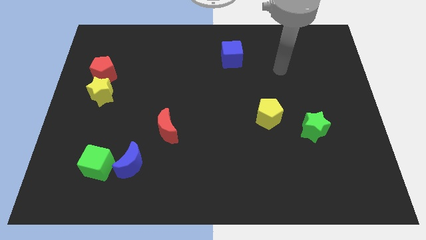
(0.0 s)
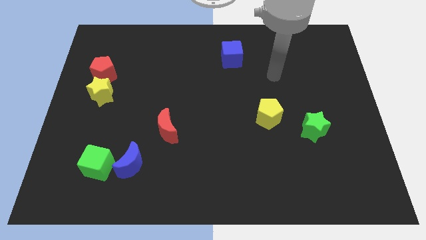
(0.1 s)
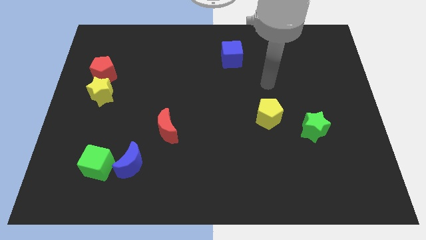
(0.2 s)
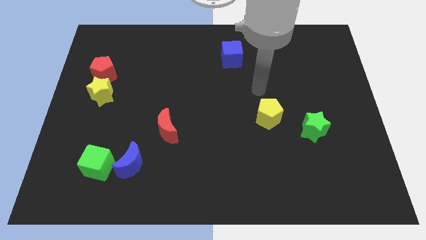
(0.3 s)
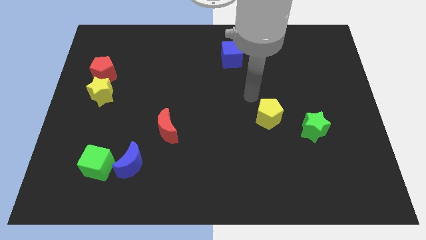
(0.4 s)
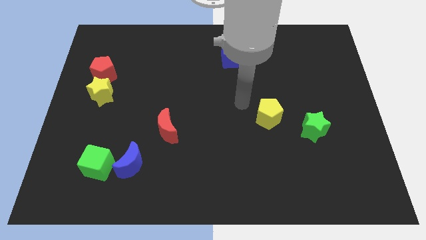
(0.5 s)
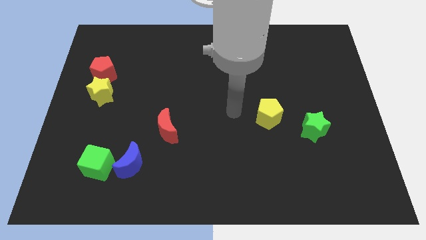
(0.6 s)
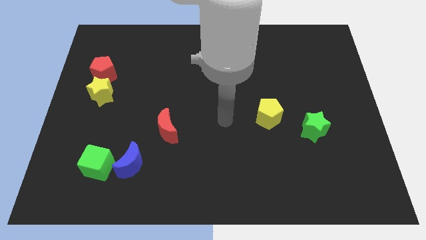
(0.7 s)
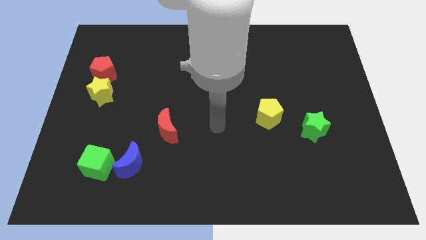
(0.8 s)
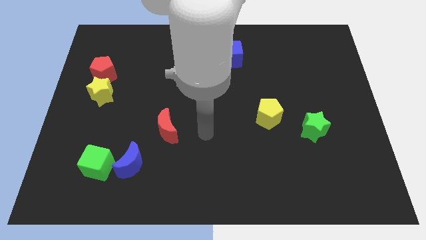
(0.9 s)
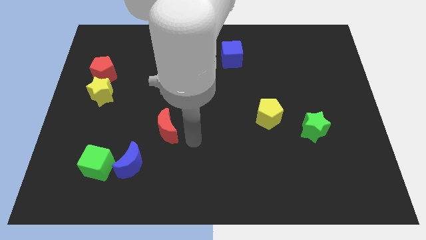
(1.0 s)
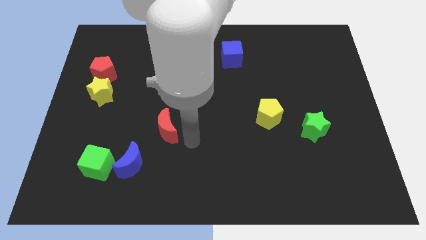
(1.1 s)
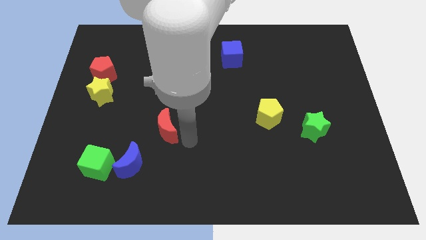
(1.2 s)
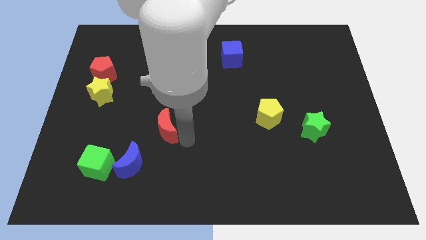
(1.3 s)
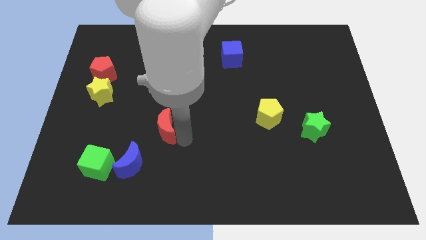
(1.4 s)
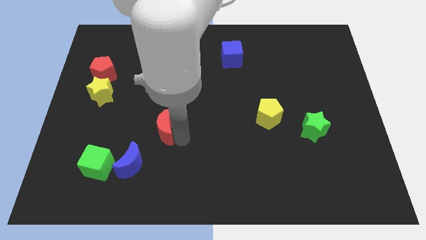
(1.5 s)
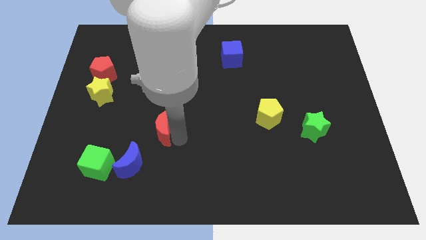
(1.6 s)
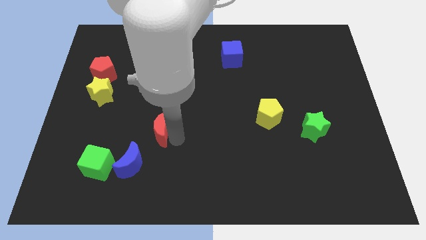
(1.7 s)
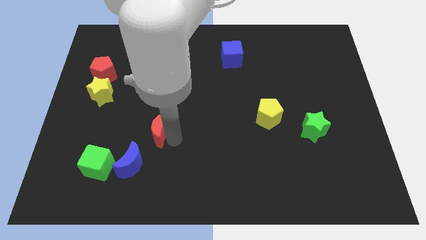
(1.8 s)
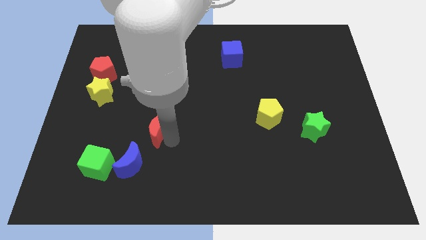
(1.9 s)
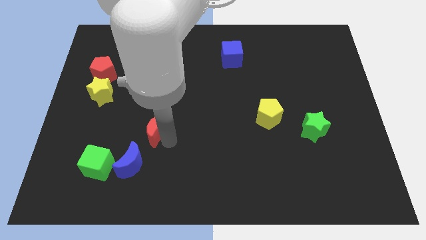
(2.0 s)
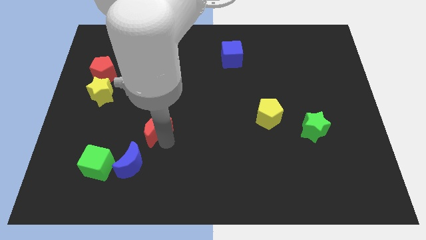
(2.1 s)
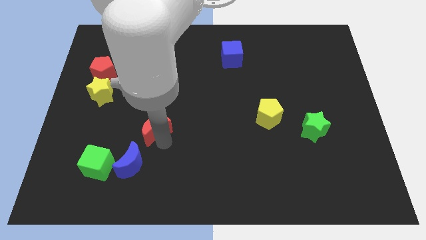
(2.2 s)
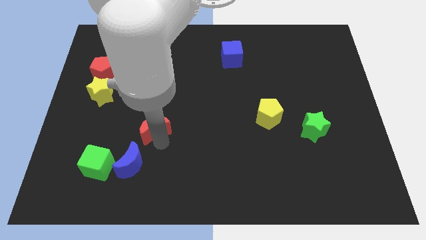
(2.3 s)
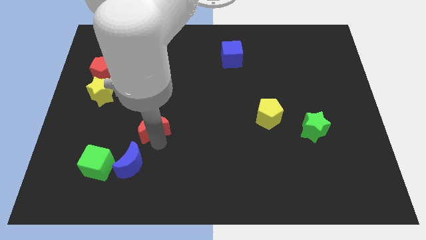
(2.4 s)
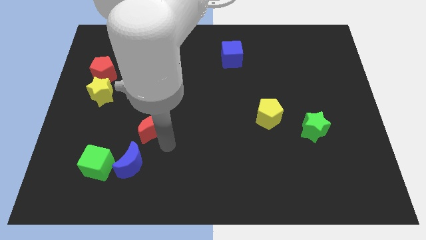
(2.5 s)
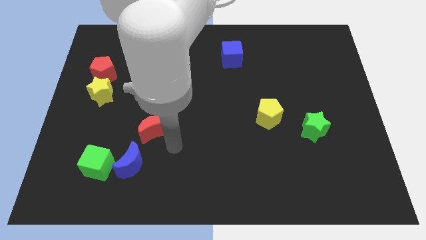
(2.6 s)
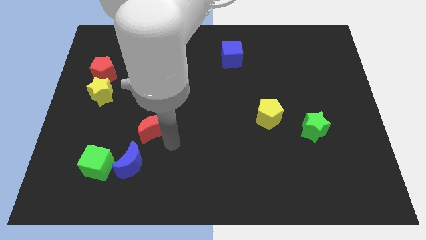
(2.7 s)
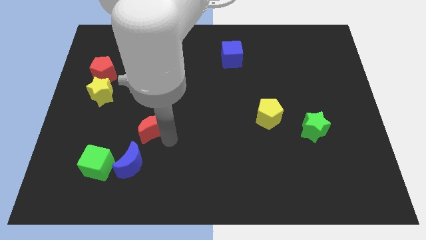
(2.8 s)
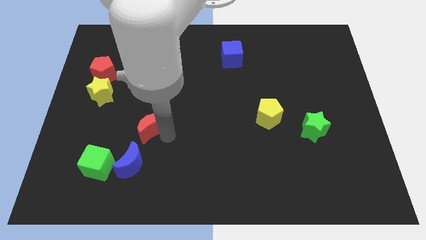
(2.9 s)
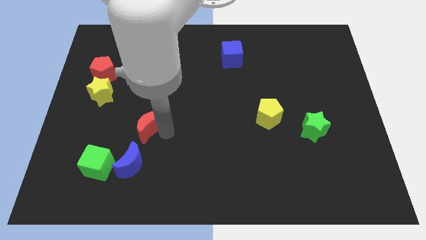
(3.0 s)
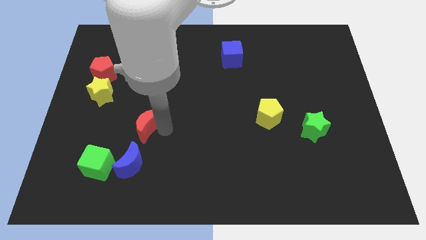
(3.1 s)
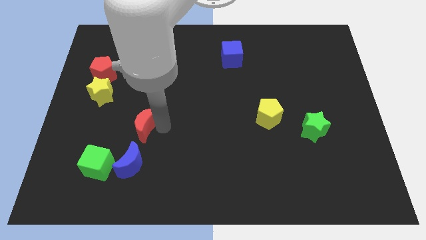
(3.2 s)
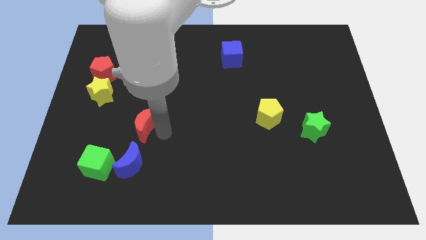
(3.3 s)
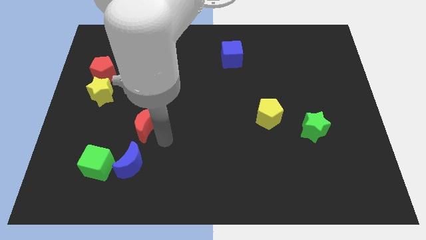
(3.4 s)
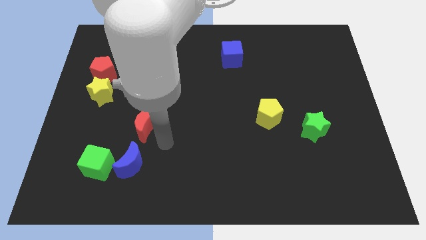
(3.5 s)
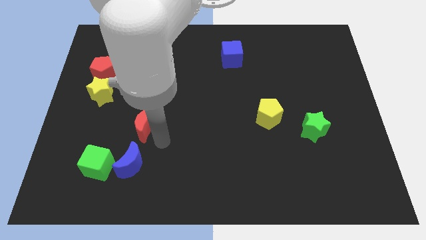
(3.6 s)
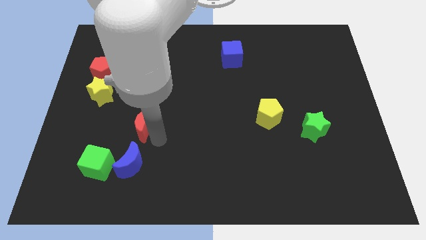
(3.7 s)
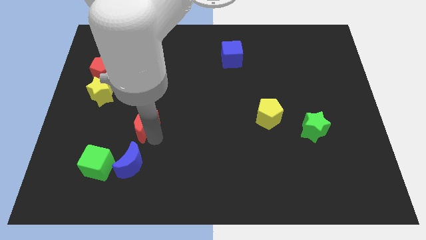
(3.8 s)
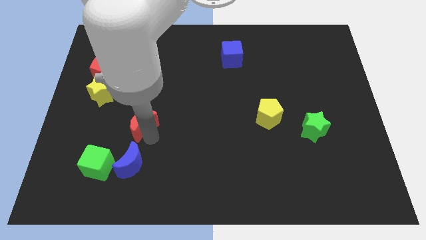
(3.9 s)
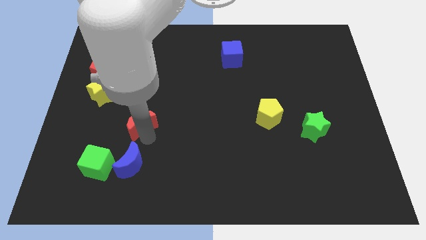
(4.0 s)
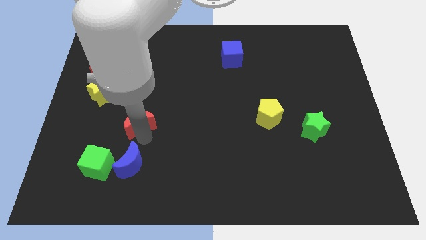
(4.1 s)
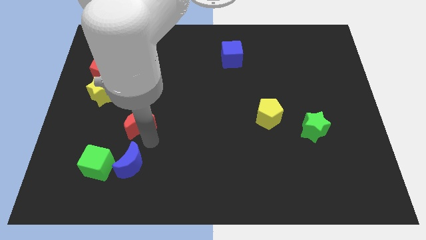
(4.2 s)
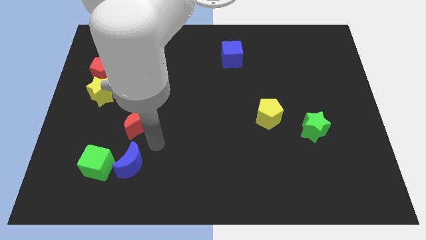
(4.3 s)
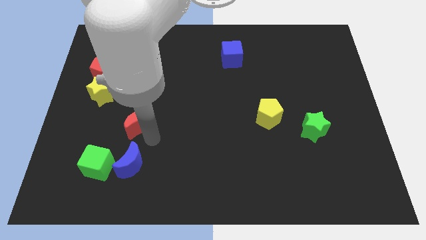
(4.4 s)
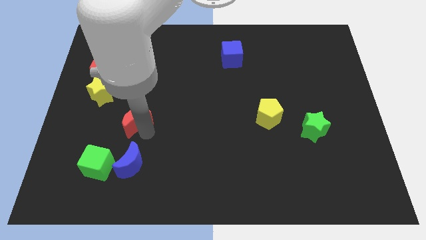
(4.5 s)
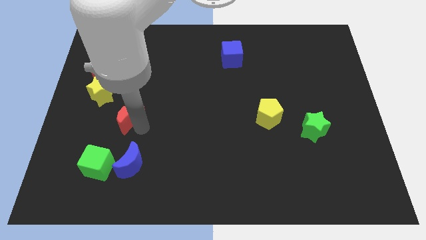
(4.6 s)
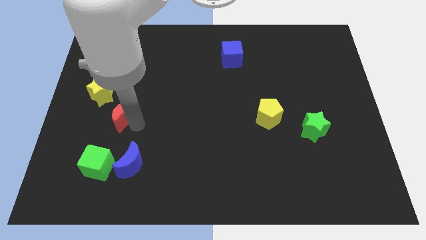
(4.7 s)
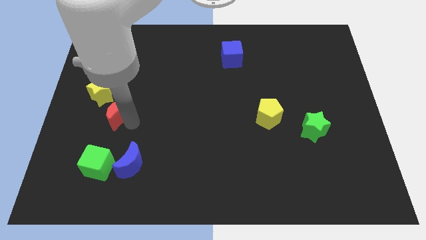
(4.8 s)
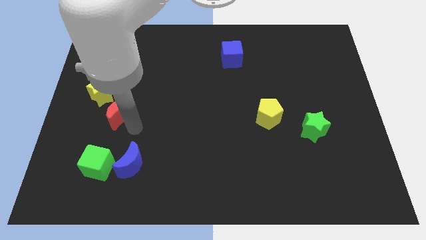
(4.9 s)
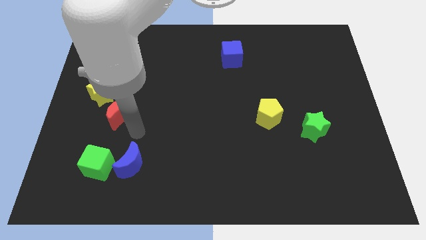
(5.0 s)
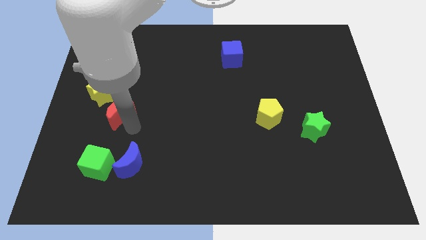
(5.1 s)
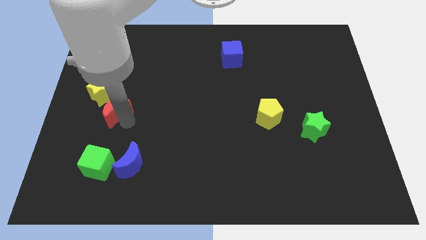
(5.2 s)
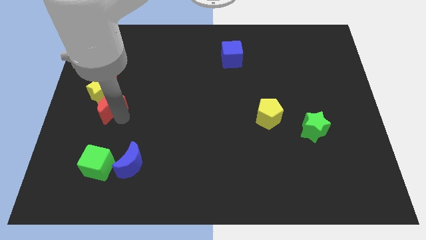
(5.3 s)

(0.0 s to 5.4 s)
slide the red moon next to the yellow star
